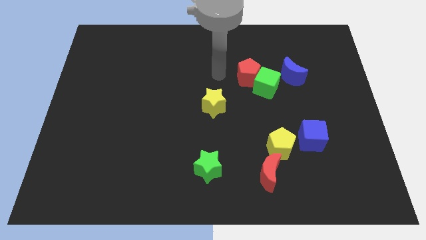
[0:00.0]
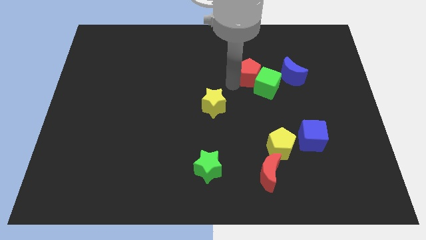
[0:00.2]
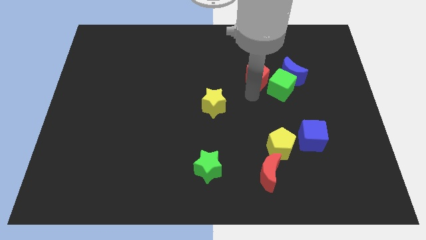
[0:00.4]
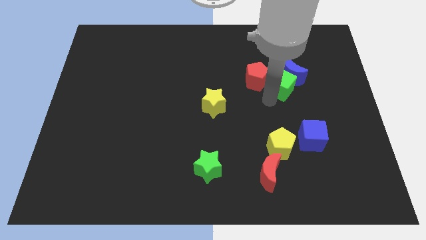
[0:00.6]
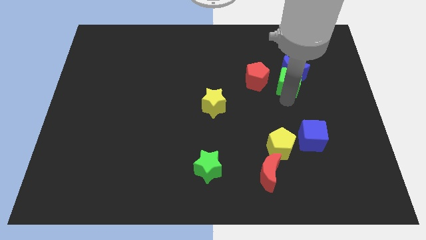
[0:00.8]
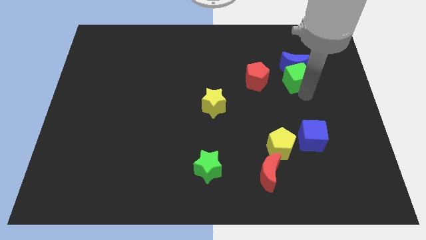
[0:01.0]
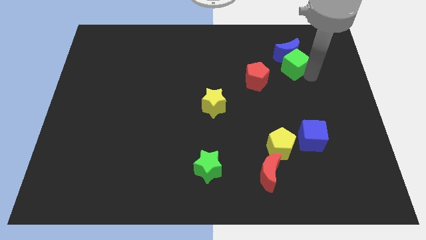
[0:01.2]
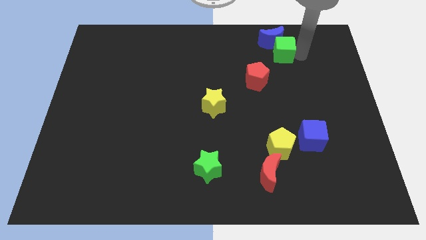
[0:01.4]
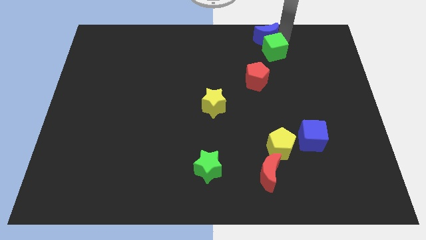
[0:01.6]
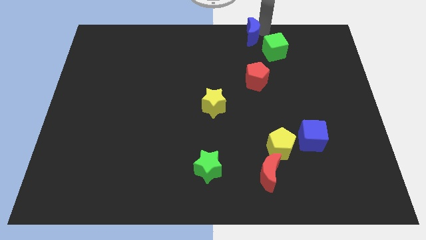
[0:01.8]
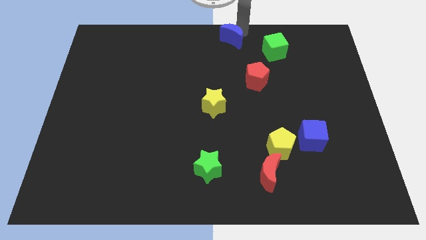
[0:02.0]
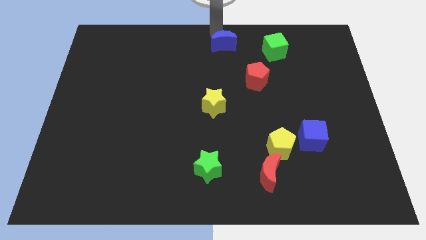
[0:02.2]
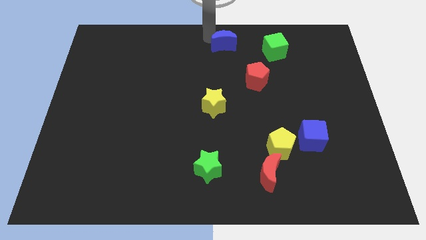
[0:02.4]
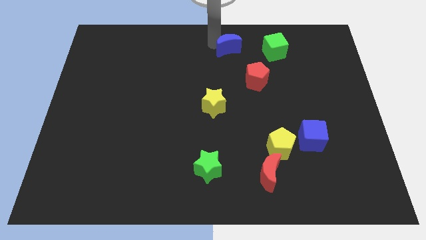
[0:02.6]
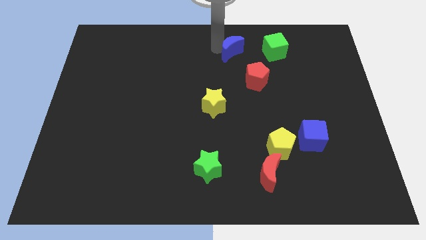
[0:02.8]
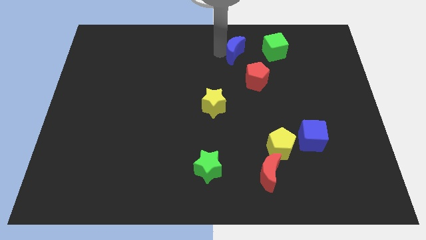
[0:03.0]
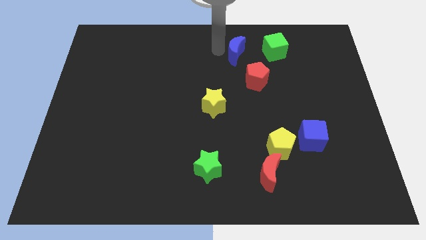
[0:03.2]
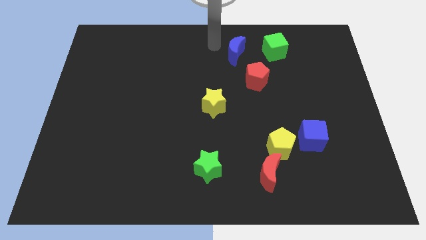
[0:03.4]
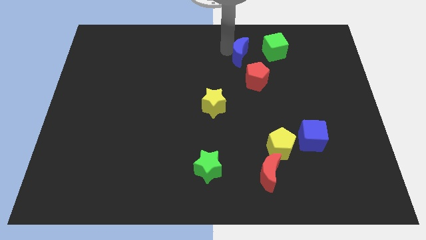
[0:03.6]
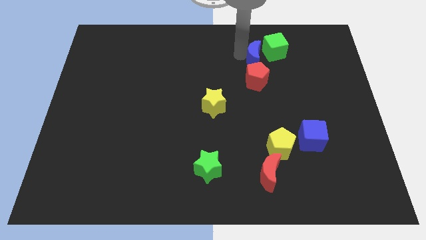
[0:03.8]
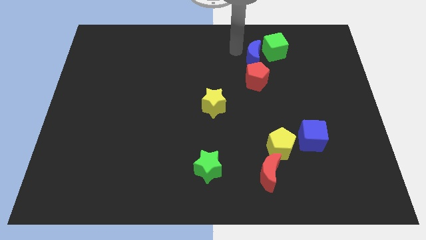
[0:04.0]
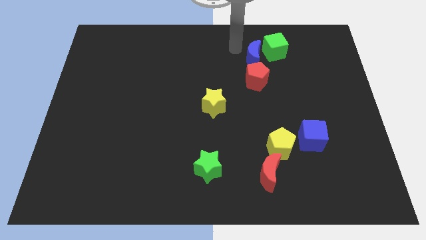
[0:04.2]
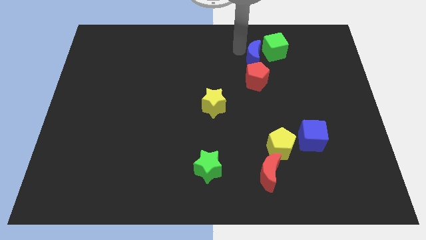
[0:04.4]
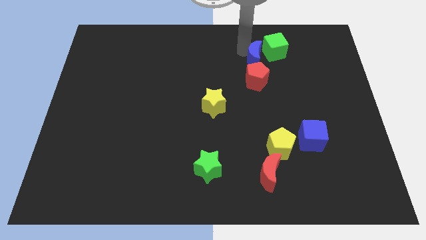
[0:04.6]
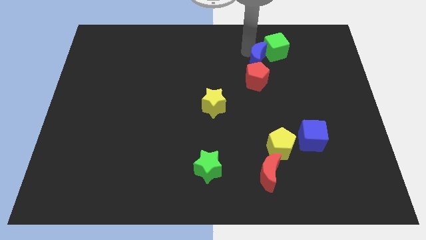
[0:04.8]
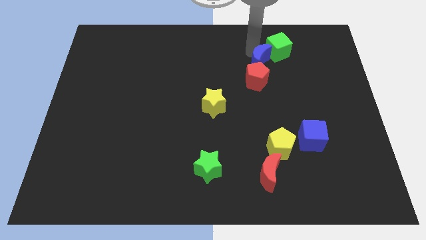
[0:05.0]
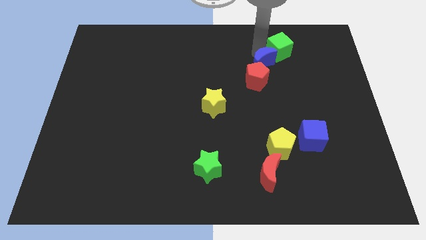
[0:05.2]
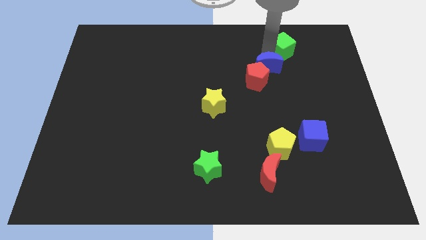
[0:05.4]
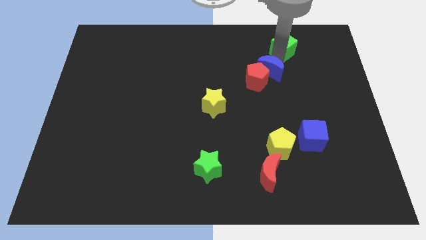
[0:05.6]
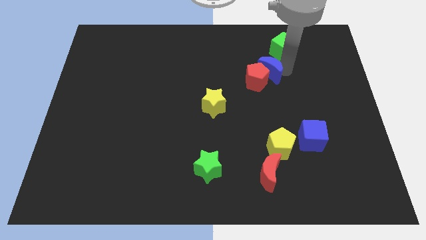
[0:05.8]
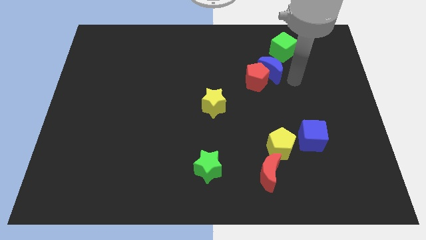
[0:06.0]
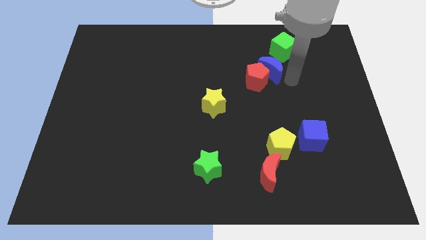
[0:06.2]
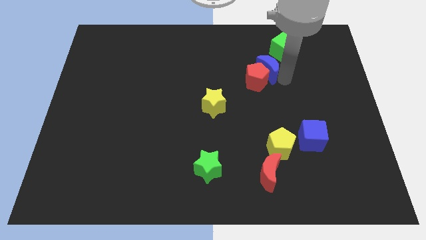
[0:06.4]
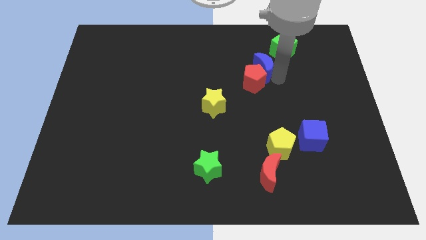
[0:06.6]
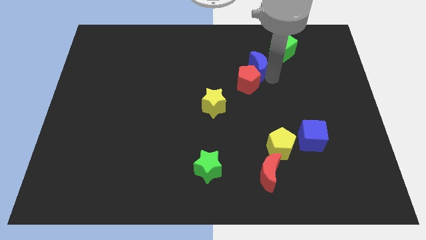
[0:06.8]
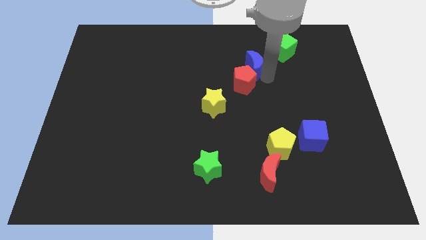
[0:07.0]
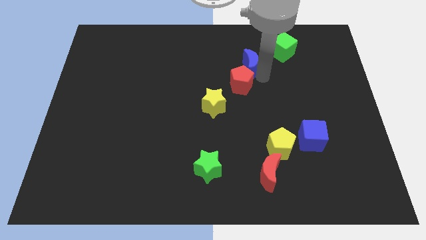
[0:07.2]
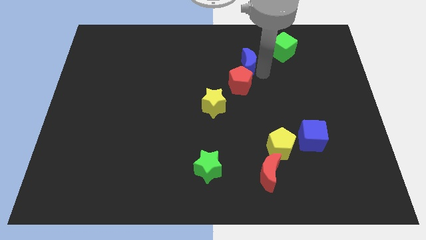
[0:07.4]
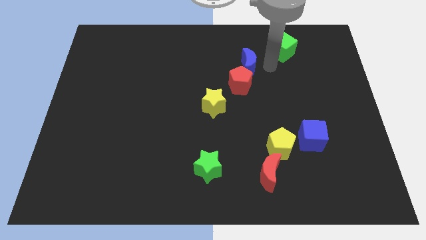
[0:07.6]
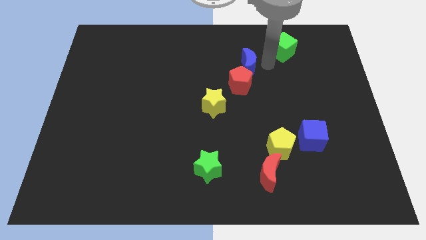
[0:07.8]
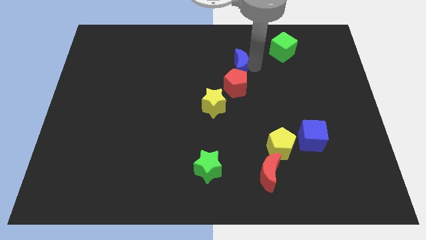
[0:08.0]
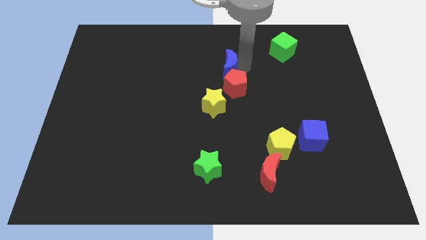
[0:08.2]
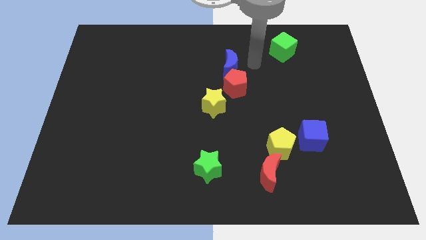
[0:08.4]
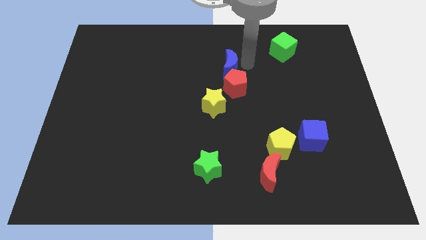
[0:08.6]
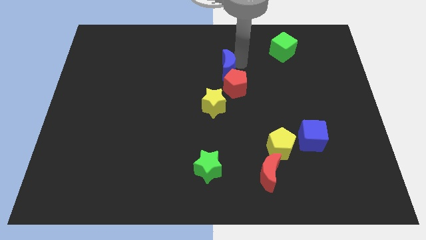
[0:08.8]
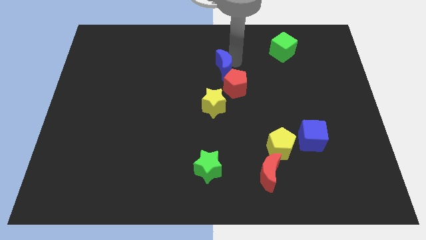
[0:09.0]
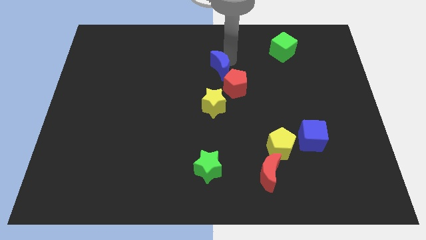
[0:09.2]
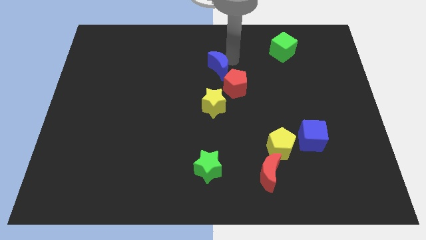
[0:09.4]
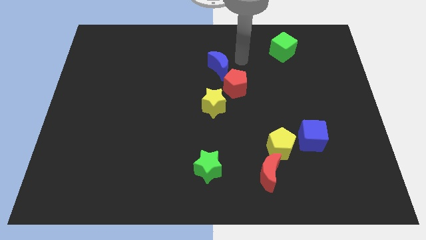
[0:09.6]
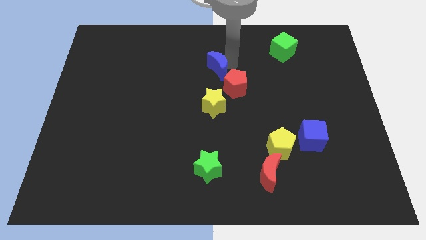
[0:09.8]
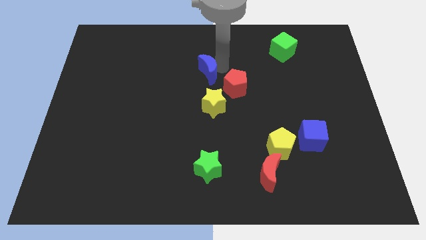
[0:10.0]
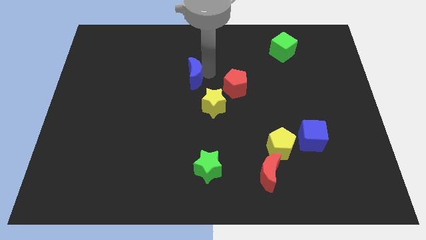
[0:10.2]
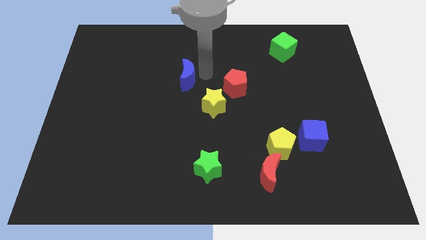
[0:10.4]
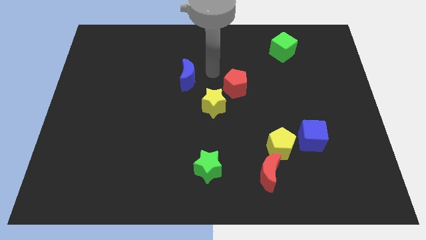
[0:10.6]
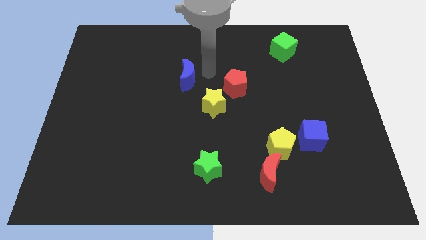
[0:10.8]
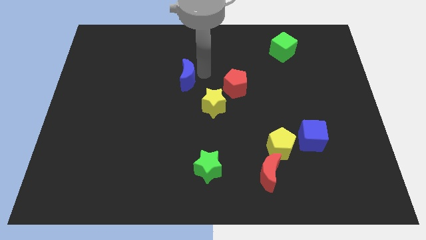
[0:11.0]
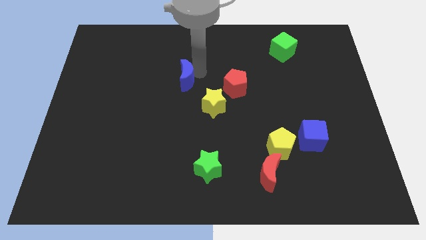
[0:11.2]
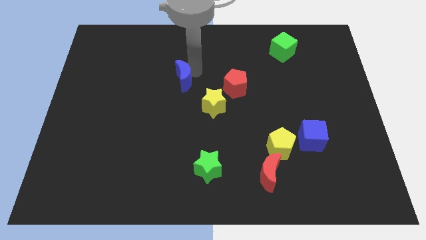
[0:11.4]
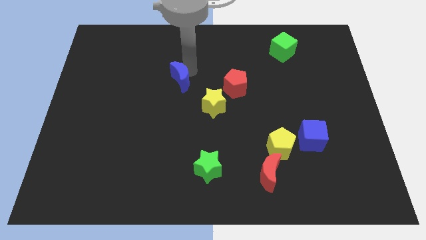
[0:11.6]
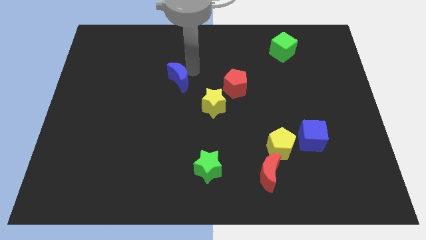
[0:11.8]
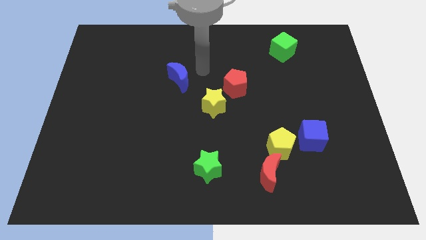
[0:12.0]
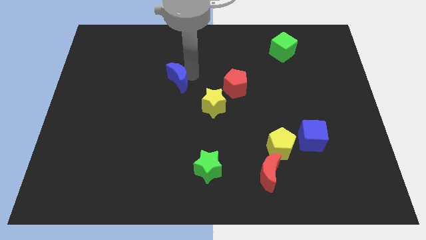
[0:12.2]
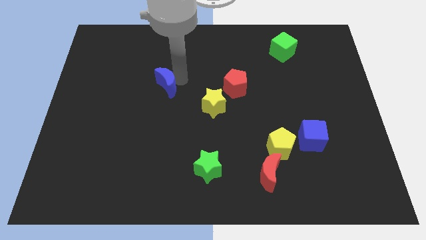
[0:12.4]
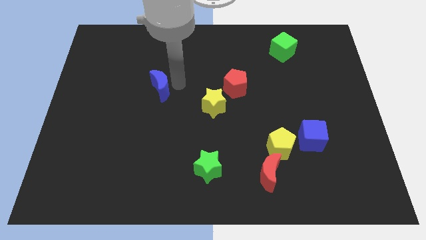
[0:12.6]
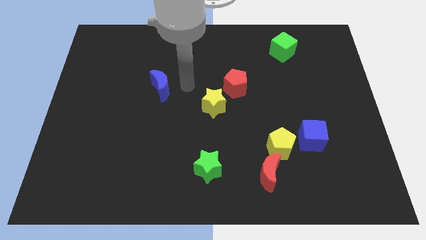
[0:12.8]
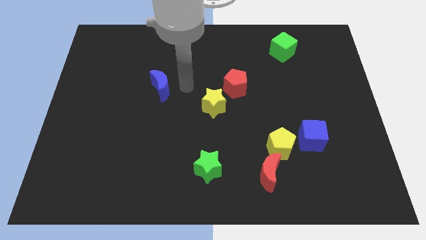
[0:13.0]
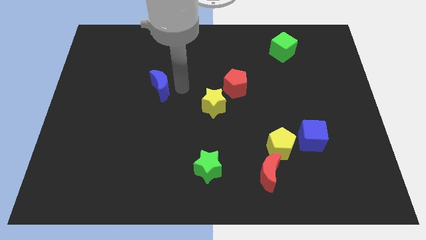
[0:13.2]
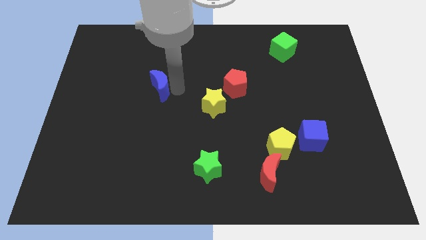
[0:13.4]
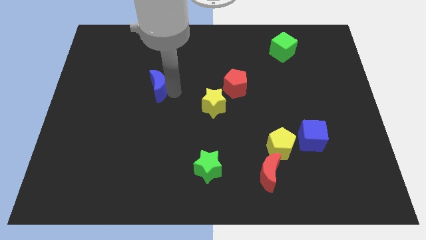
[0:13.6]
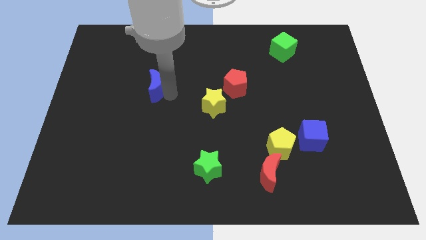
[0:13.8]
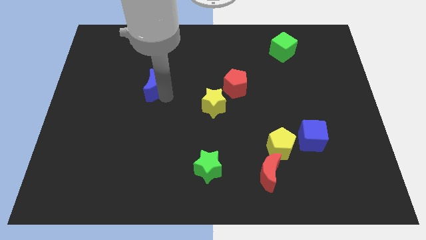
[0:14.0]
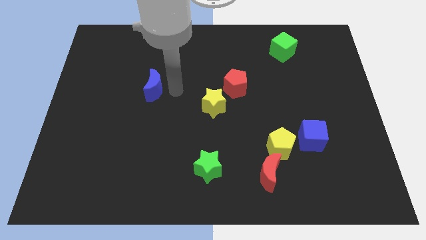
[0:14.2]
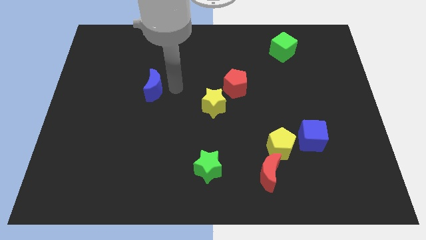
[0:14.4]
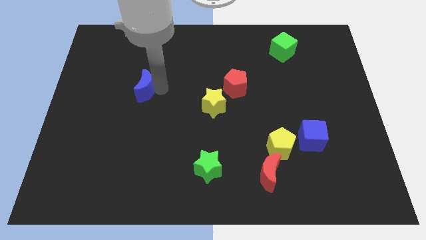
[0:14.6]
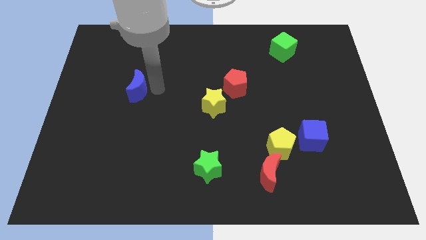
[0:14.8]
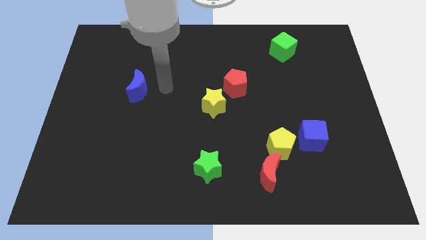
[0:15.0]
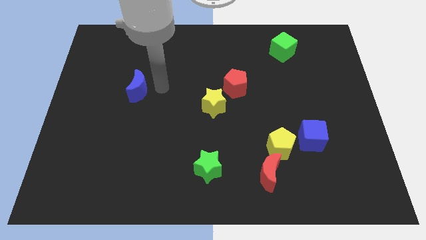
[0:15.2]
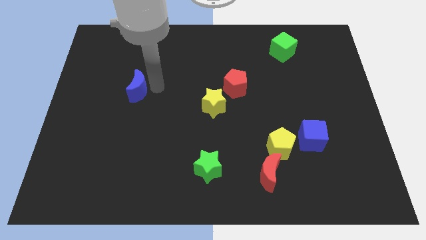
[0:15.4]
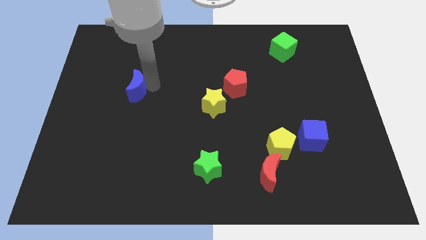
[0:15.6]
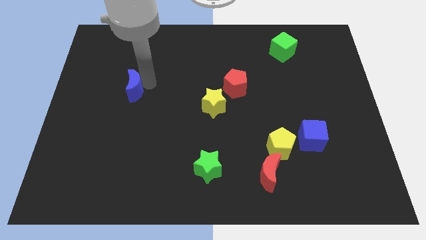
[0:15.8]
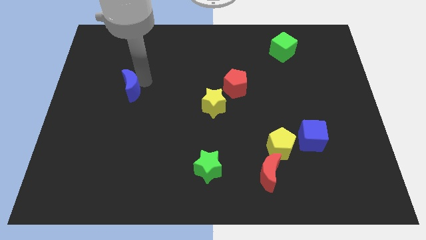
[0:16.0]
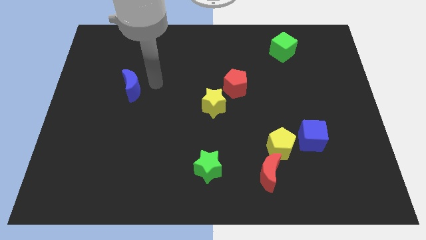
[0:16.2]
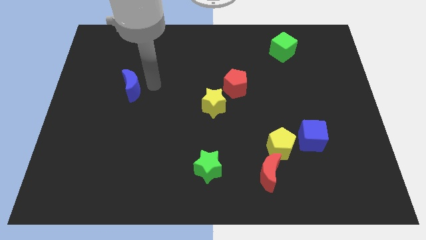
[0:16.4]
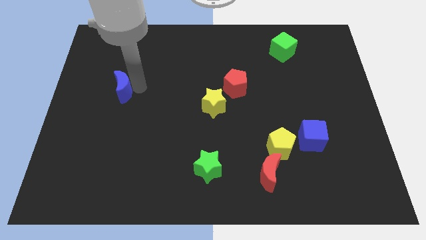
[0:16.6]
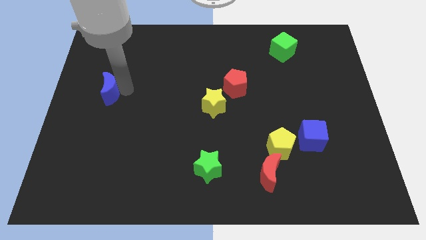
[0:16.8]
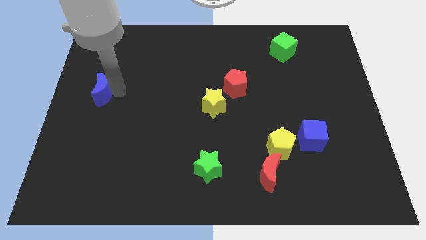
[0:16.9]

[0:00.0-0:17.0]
push the blue moon to the left side
